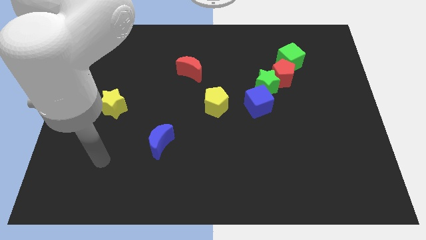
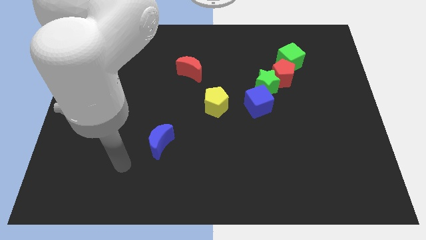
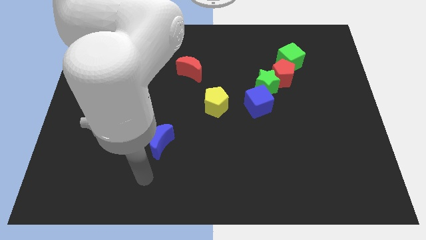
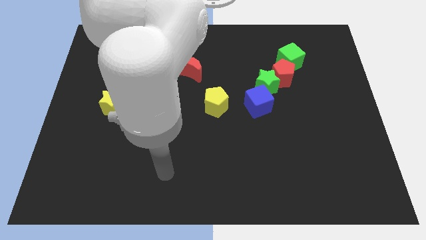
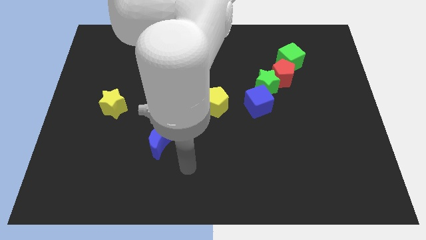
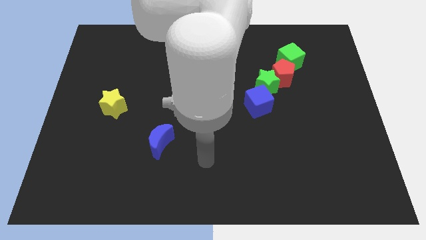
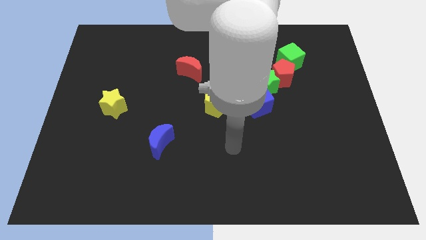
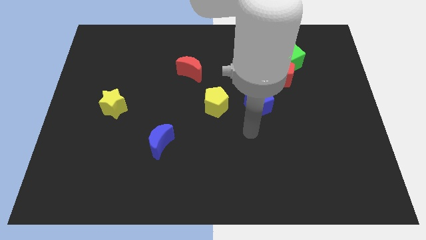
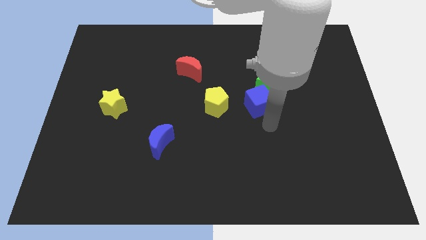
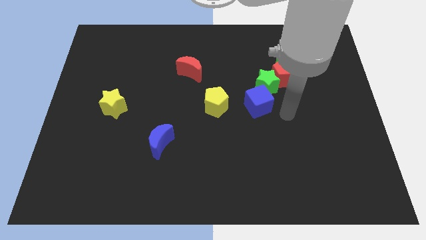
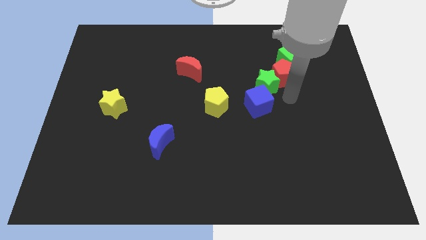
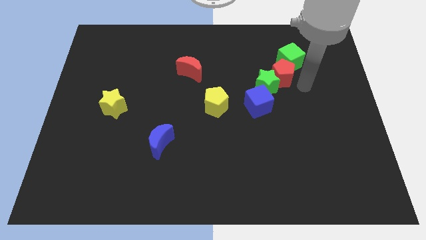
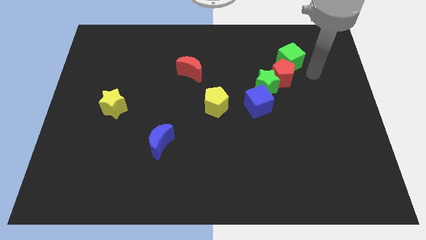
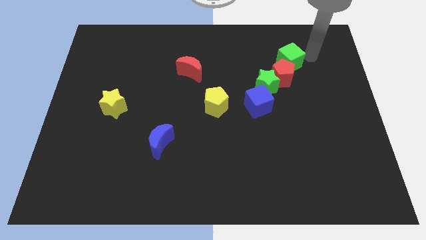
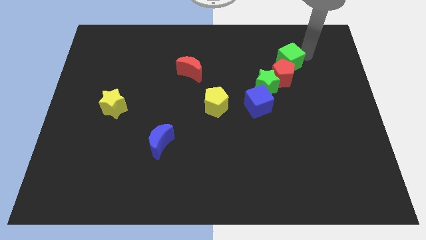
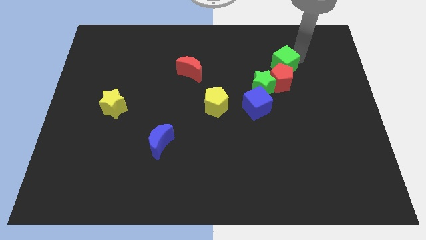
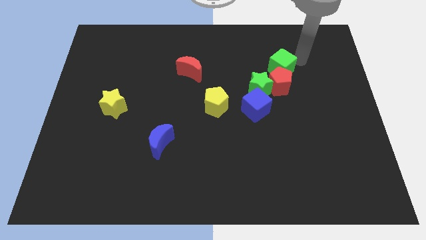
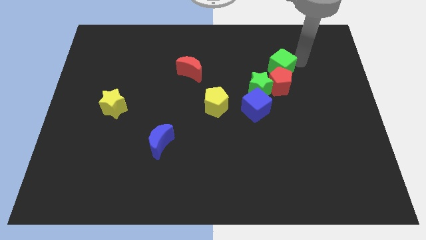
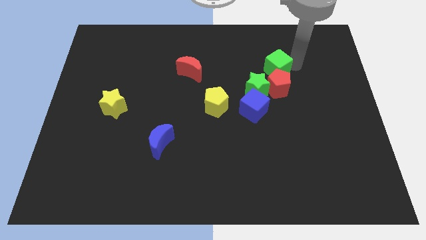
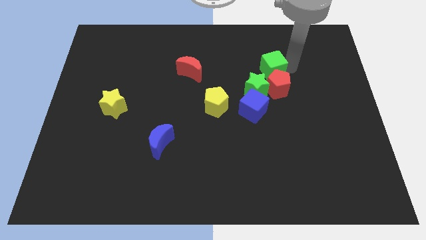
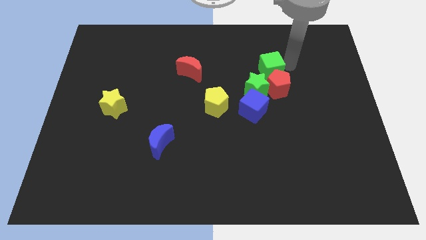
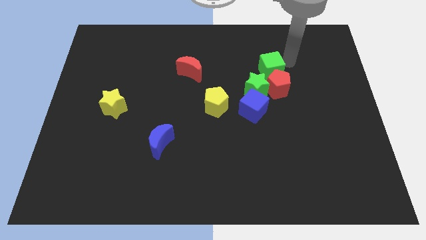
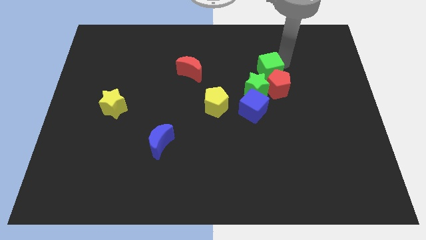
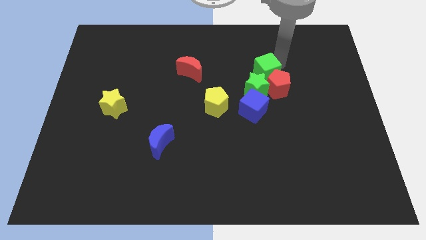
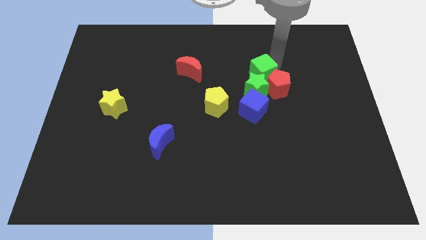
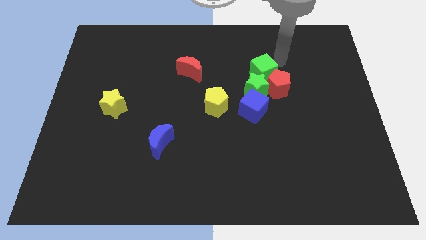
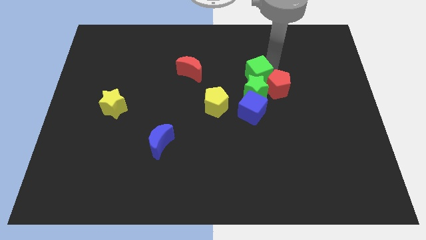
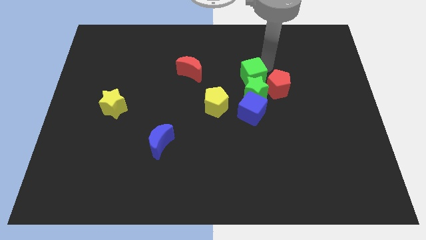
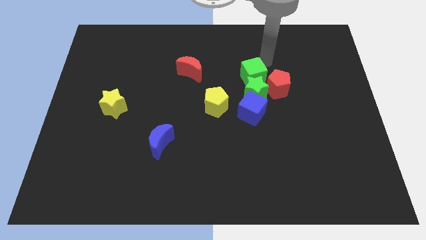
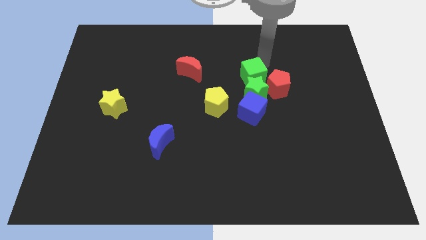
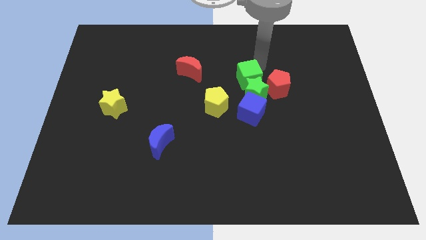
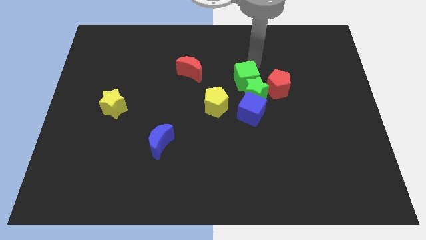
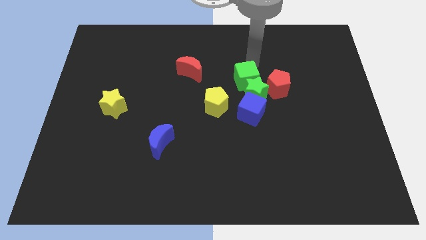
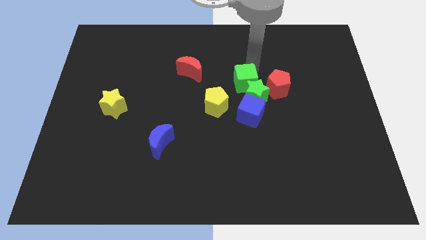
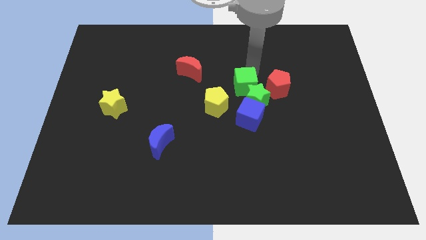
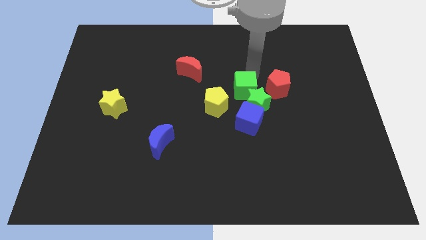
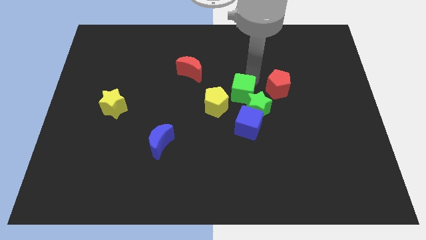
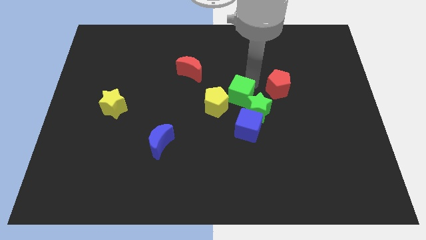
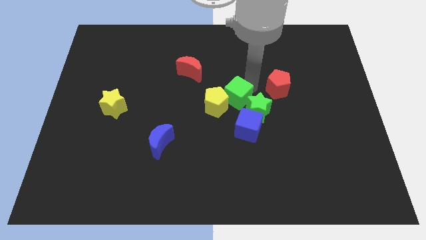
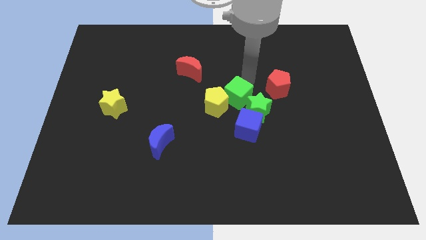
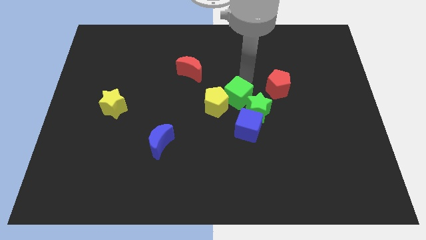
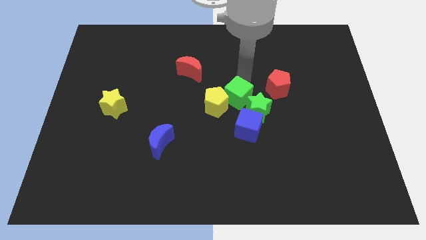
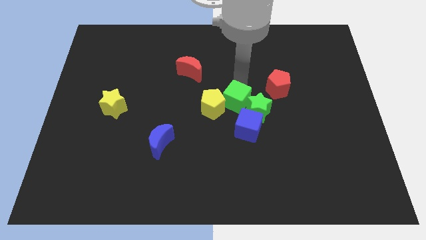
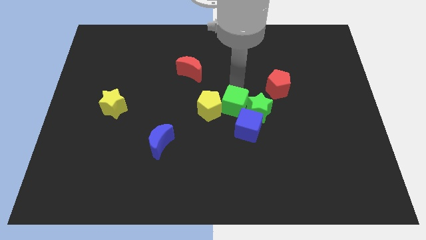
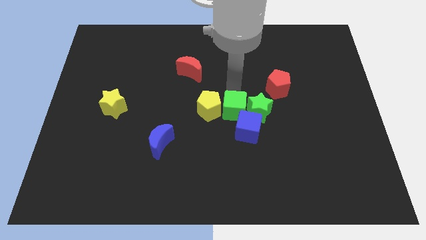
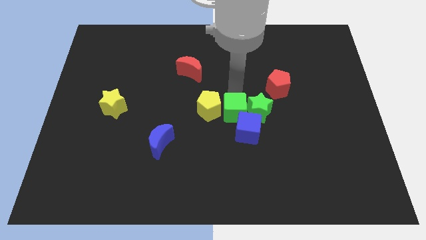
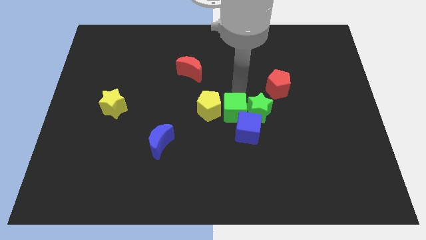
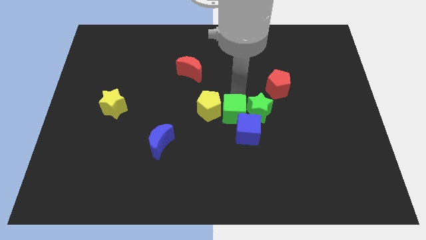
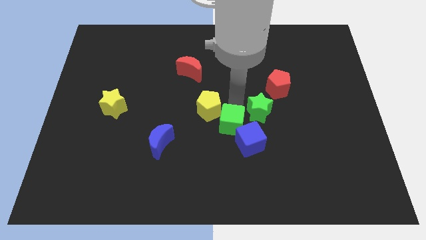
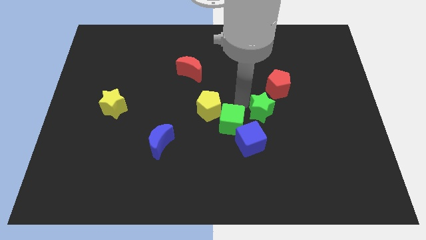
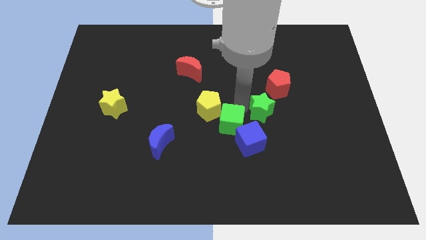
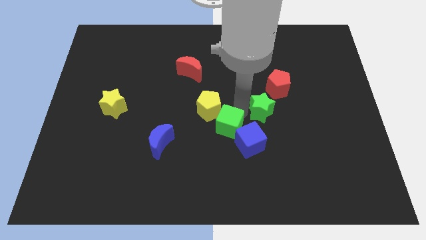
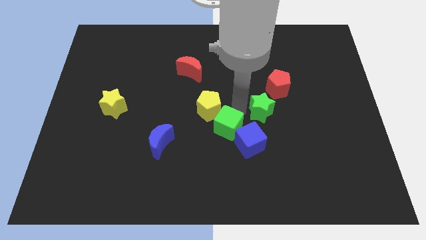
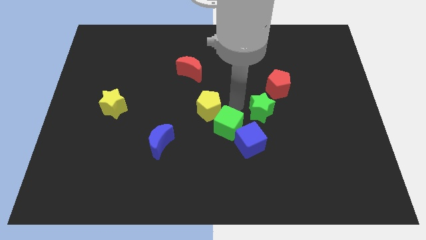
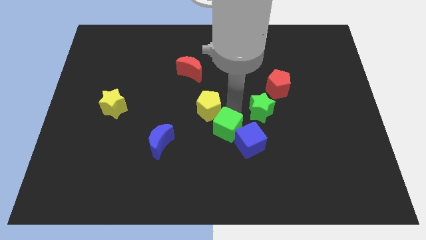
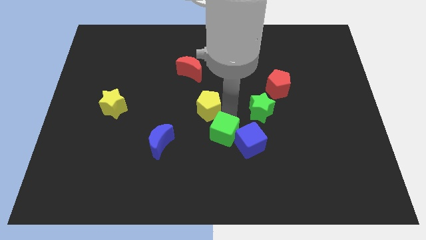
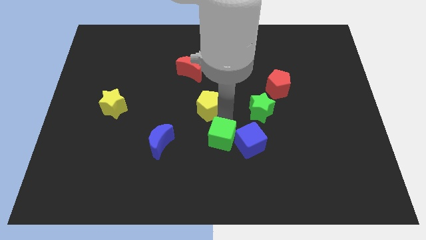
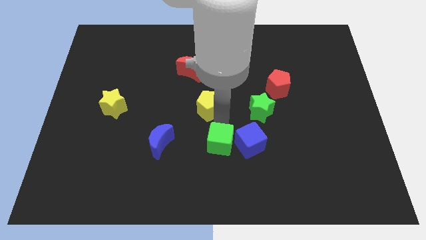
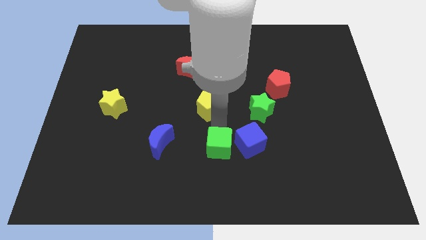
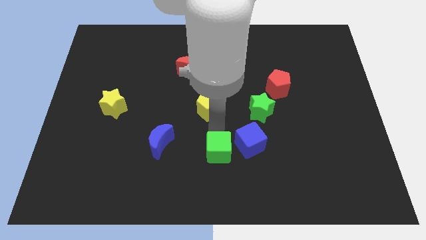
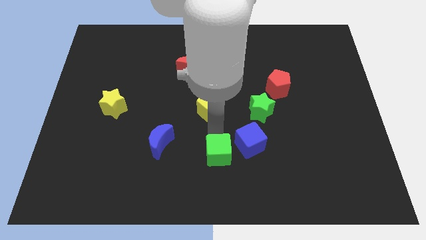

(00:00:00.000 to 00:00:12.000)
put the green cube to the bottom side
